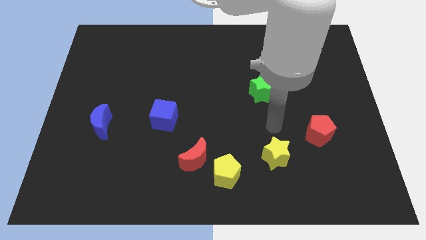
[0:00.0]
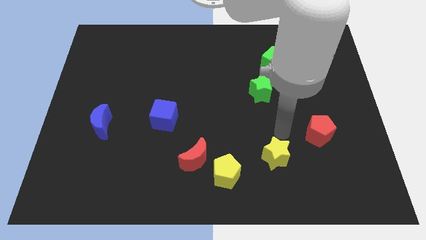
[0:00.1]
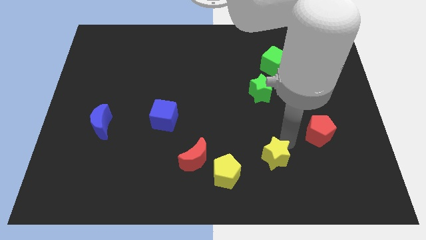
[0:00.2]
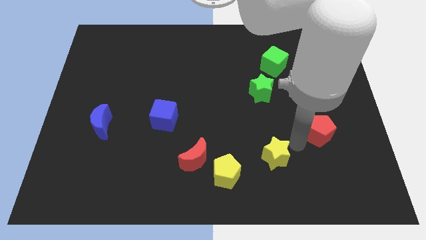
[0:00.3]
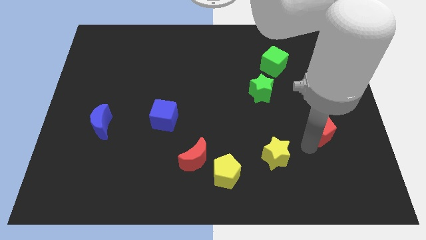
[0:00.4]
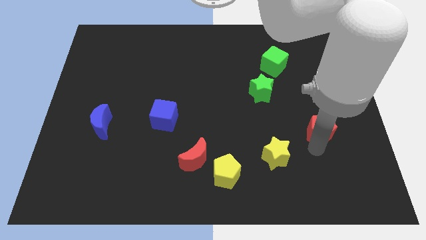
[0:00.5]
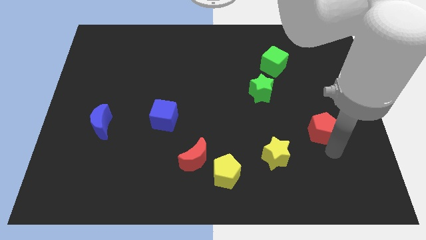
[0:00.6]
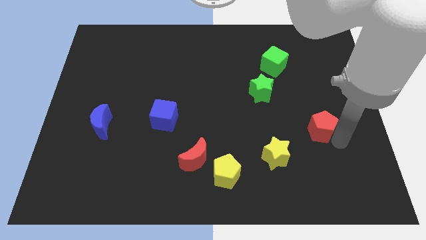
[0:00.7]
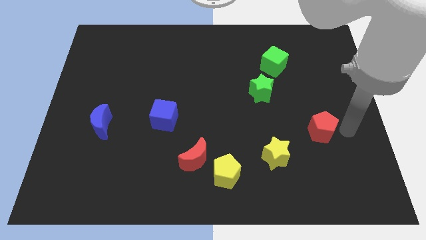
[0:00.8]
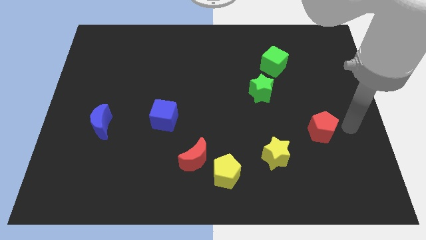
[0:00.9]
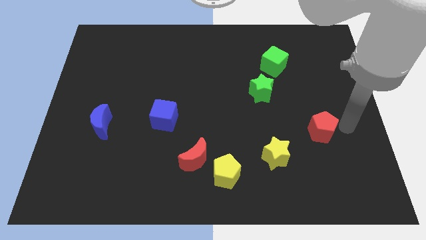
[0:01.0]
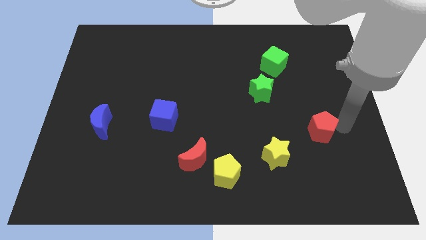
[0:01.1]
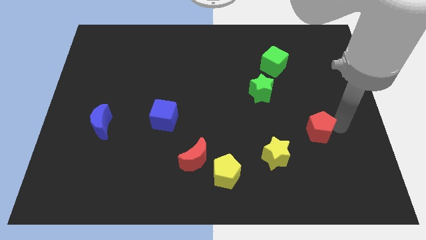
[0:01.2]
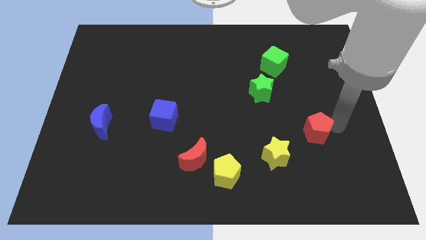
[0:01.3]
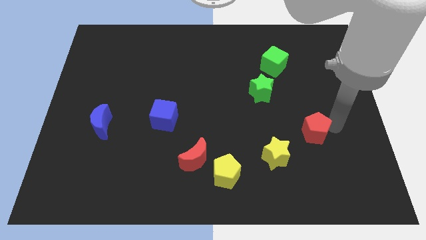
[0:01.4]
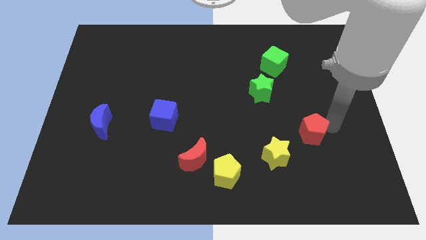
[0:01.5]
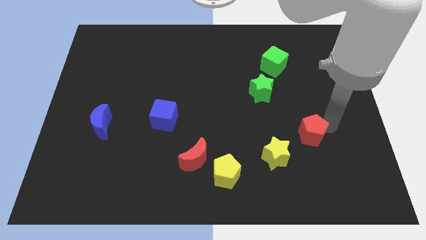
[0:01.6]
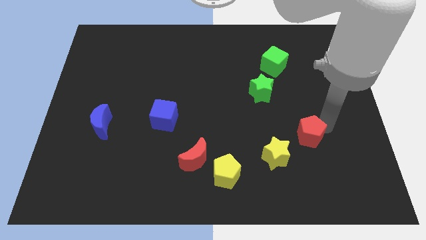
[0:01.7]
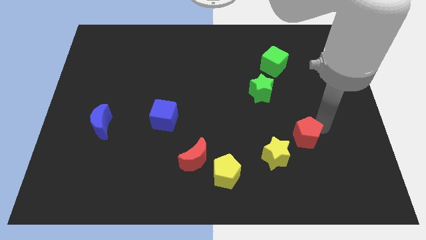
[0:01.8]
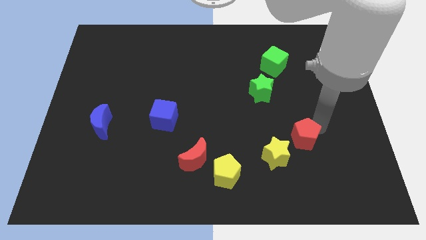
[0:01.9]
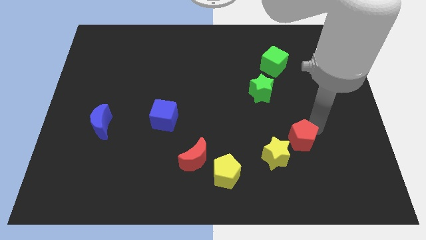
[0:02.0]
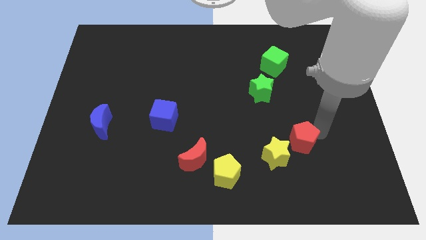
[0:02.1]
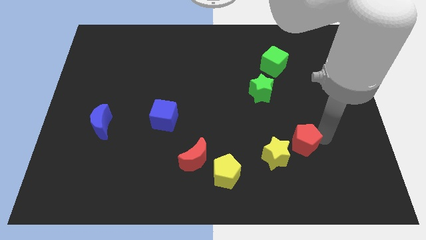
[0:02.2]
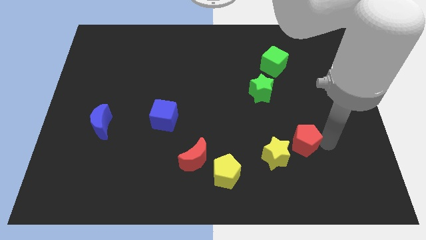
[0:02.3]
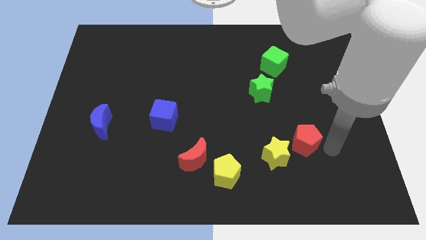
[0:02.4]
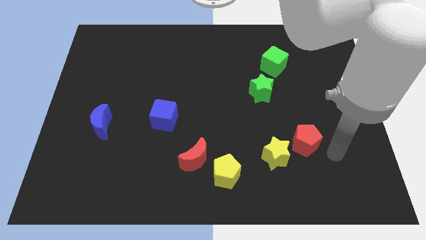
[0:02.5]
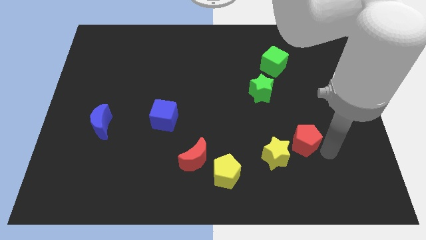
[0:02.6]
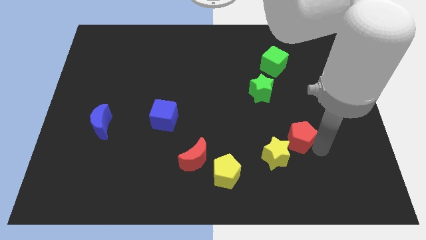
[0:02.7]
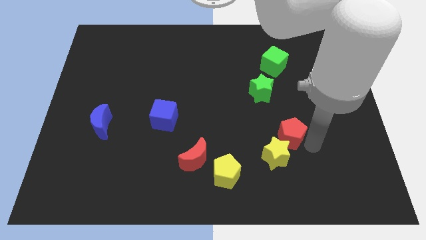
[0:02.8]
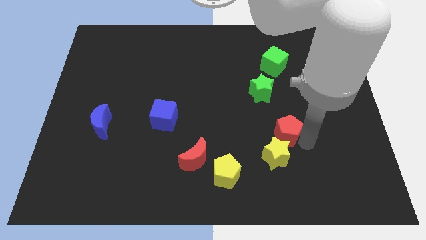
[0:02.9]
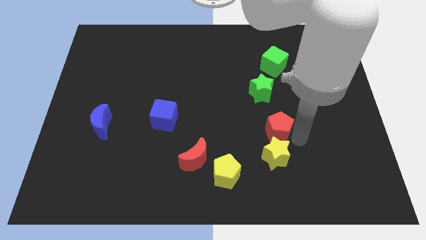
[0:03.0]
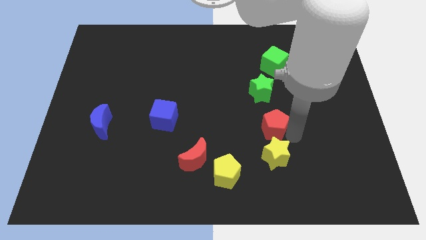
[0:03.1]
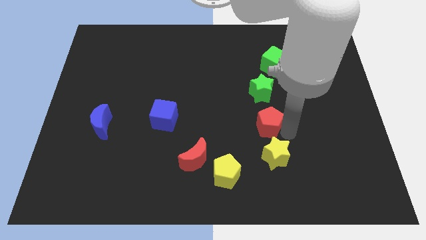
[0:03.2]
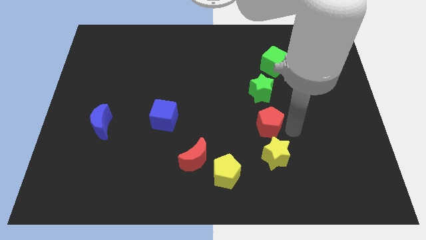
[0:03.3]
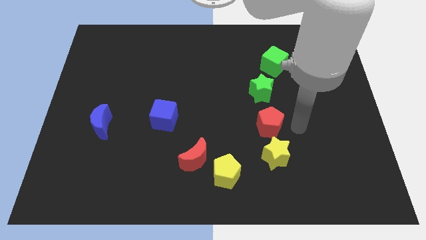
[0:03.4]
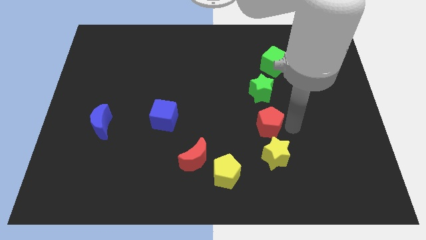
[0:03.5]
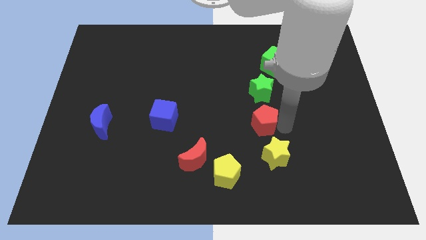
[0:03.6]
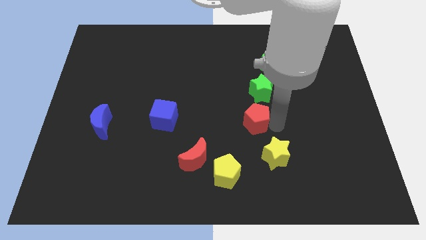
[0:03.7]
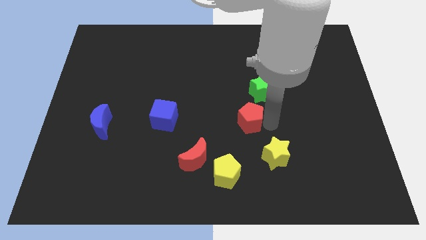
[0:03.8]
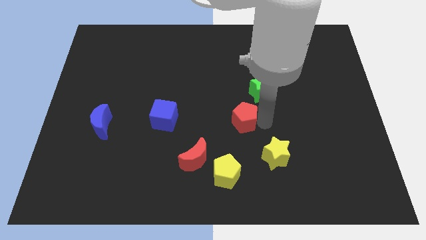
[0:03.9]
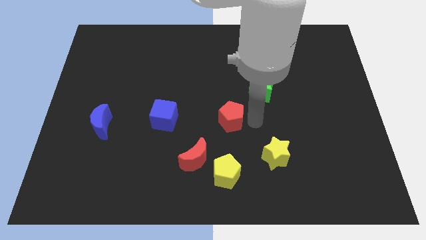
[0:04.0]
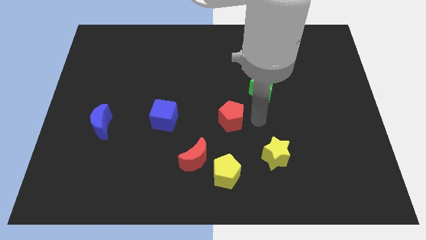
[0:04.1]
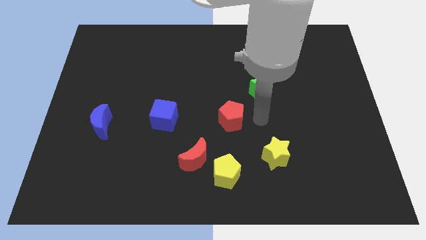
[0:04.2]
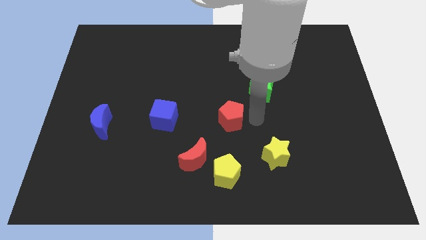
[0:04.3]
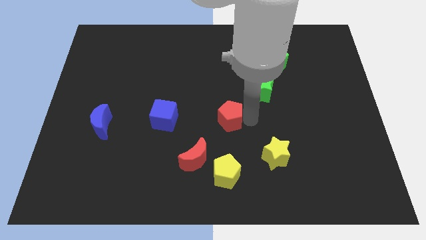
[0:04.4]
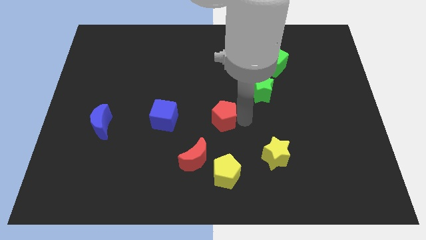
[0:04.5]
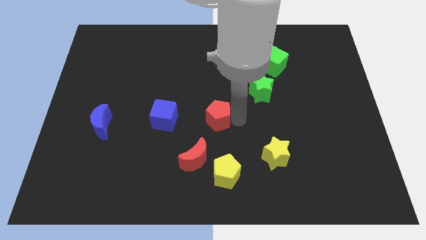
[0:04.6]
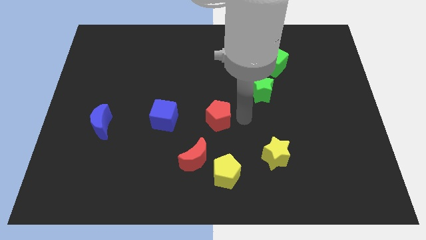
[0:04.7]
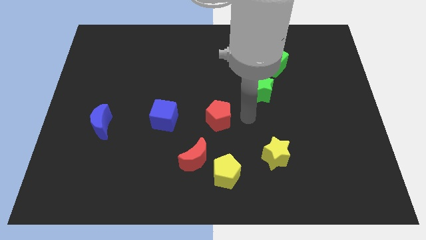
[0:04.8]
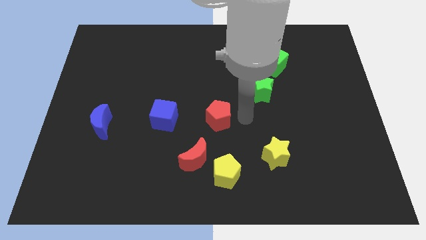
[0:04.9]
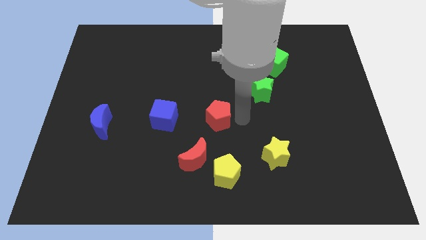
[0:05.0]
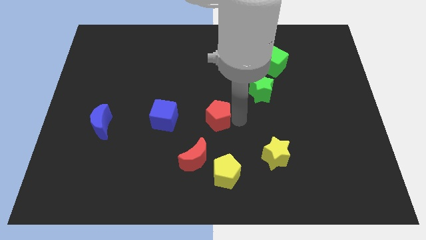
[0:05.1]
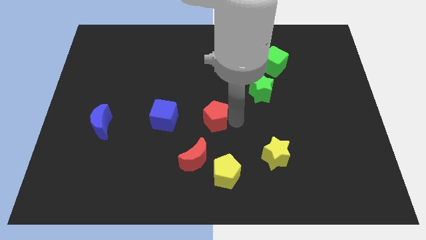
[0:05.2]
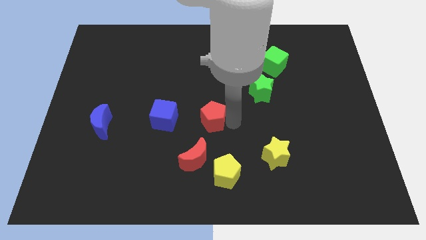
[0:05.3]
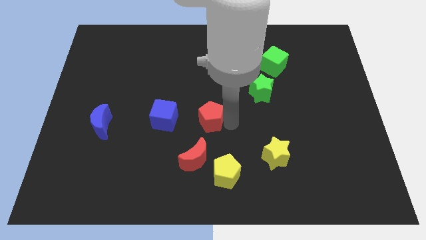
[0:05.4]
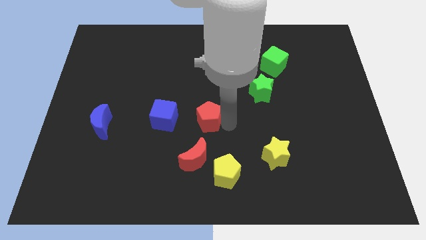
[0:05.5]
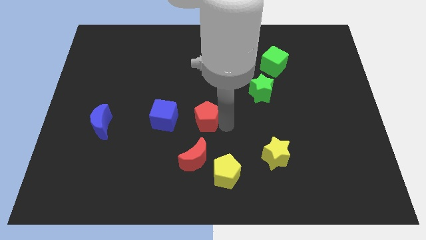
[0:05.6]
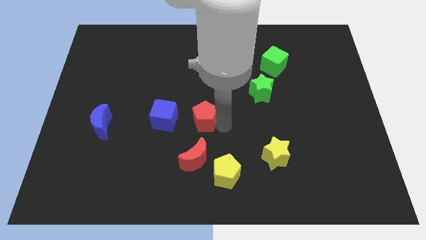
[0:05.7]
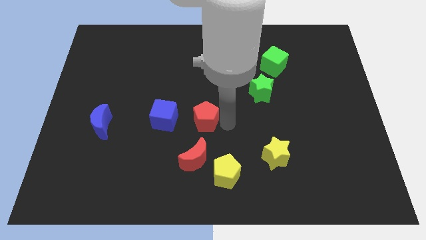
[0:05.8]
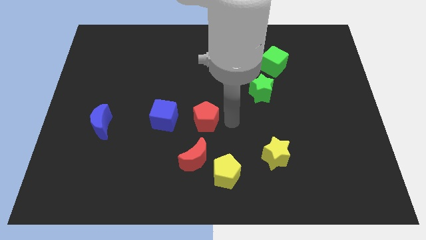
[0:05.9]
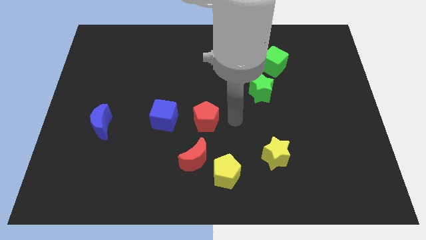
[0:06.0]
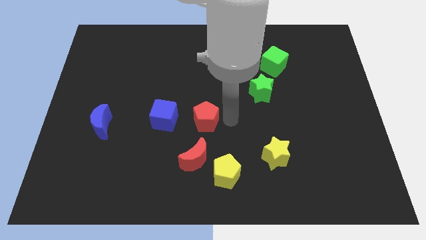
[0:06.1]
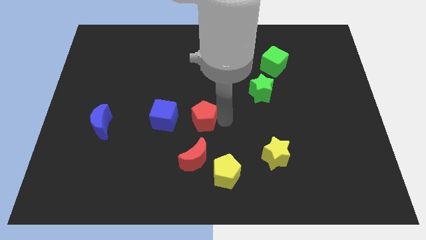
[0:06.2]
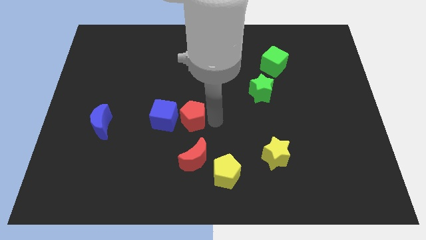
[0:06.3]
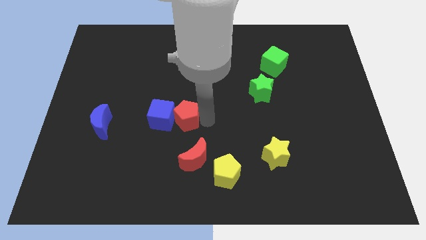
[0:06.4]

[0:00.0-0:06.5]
move the red pentagon close to the blue cube
